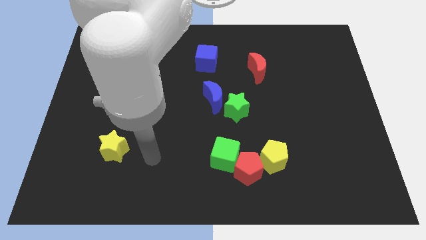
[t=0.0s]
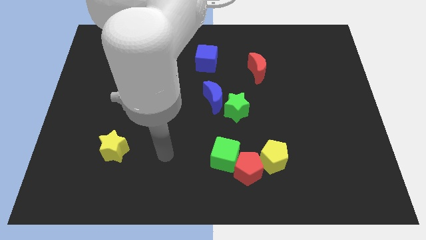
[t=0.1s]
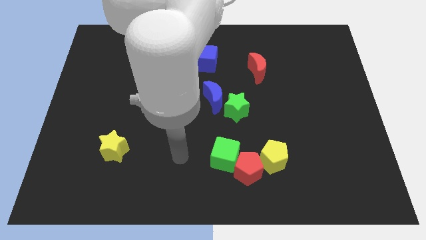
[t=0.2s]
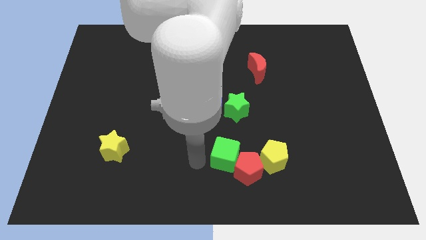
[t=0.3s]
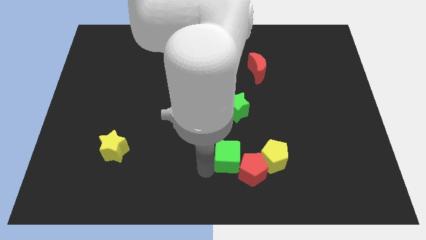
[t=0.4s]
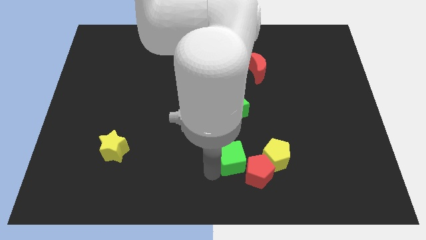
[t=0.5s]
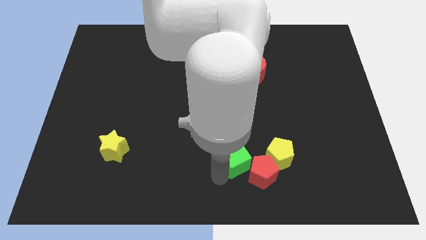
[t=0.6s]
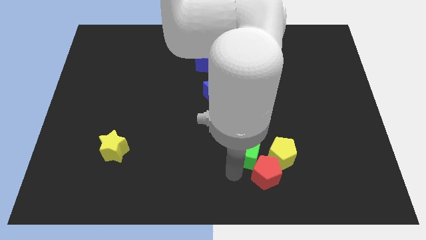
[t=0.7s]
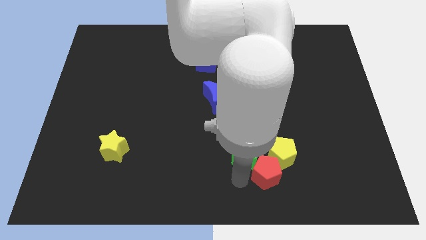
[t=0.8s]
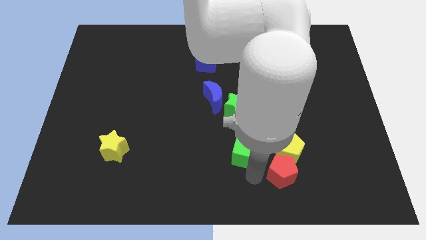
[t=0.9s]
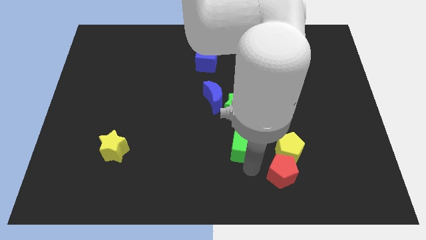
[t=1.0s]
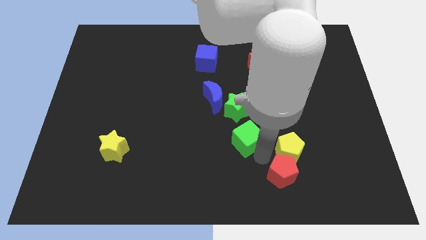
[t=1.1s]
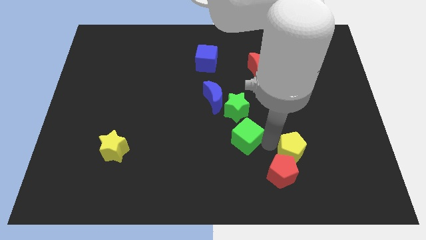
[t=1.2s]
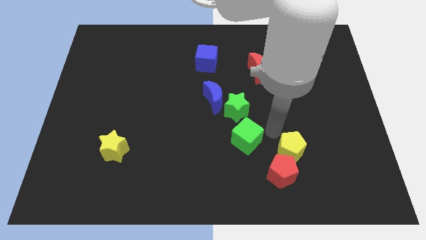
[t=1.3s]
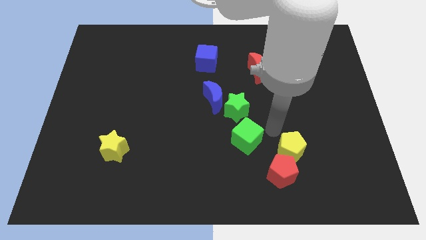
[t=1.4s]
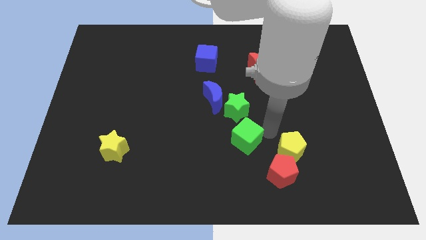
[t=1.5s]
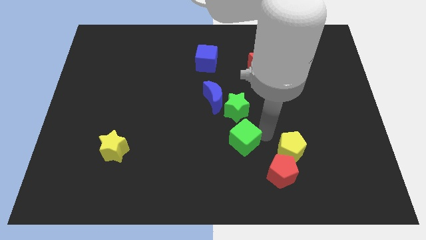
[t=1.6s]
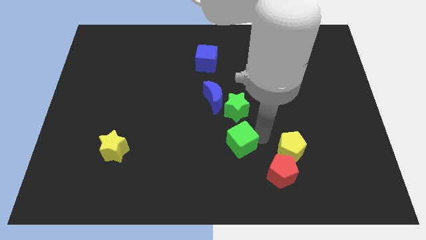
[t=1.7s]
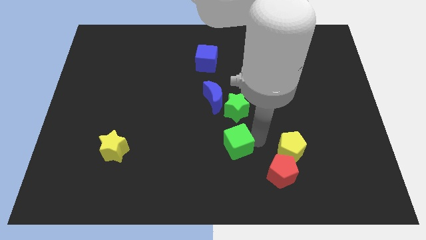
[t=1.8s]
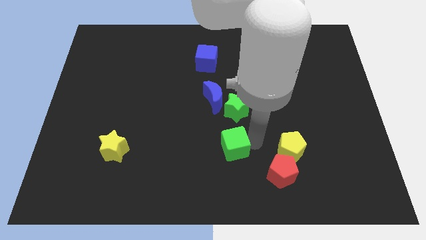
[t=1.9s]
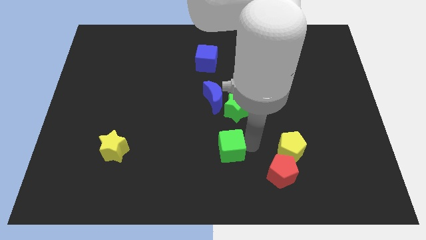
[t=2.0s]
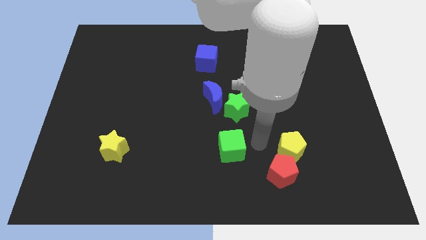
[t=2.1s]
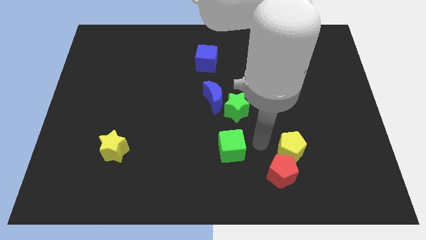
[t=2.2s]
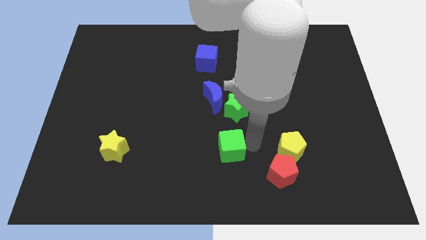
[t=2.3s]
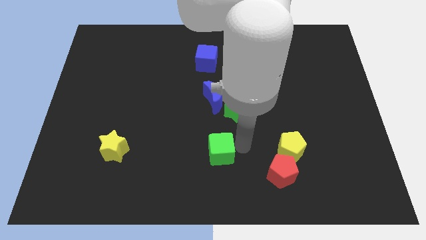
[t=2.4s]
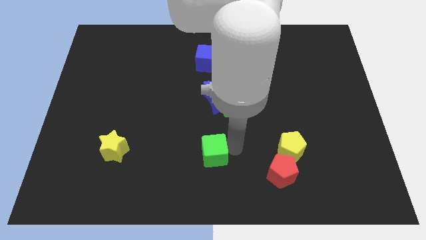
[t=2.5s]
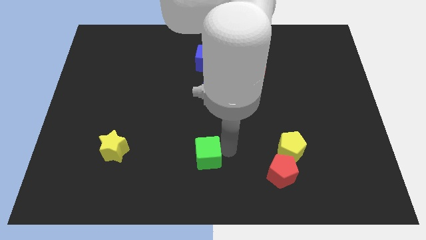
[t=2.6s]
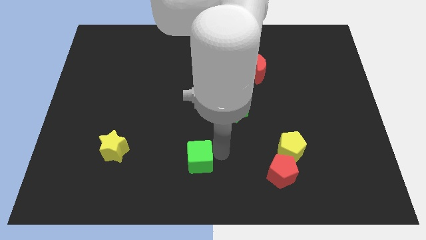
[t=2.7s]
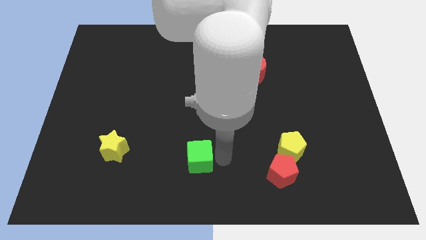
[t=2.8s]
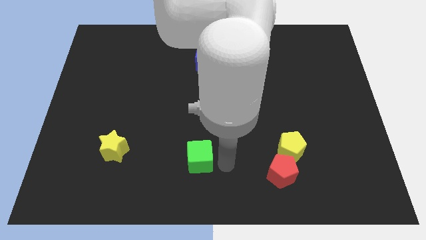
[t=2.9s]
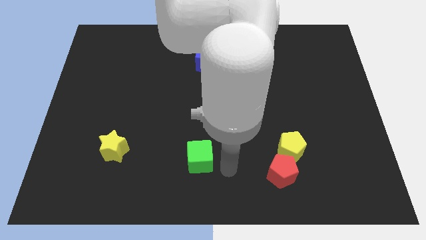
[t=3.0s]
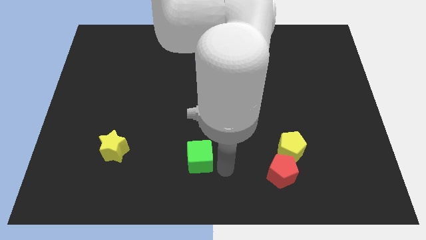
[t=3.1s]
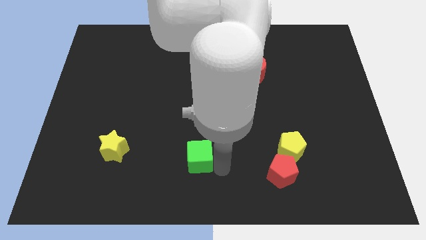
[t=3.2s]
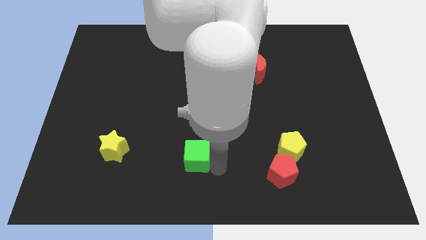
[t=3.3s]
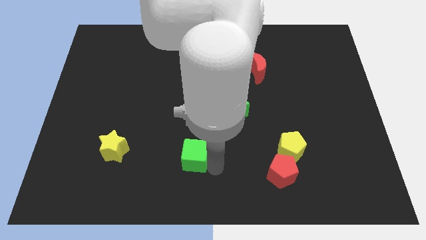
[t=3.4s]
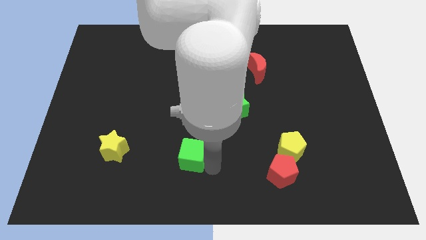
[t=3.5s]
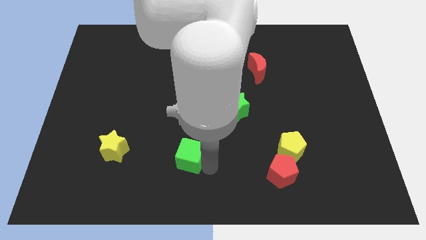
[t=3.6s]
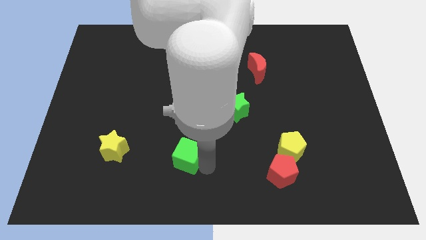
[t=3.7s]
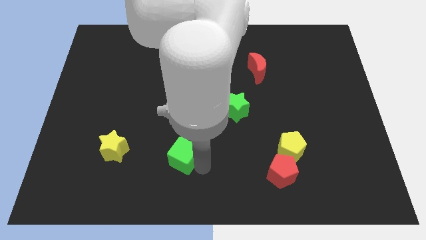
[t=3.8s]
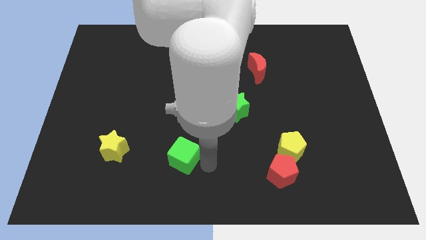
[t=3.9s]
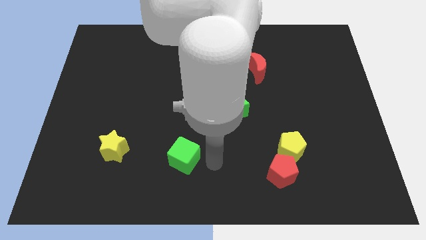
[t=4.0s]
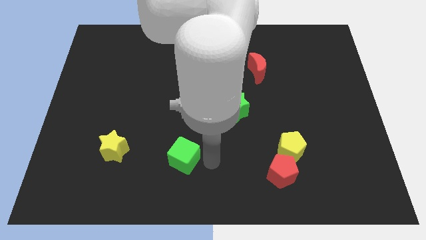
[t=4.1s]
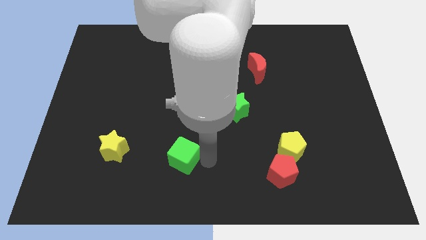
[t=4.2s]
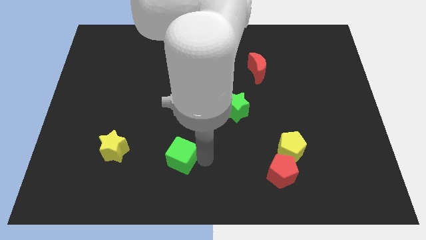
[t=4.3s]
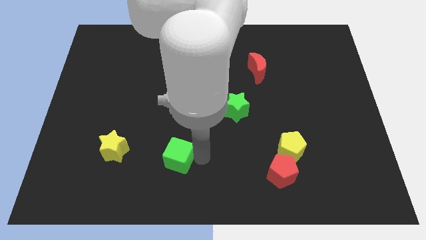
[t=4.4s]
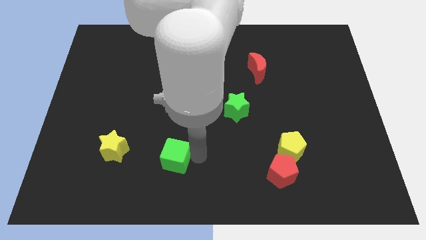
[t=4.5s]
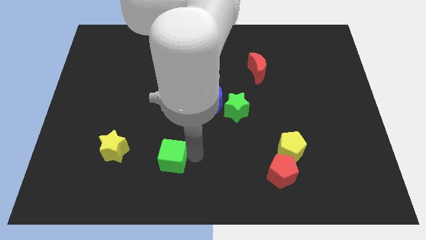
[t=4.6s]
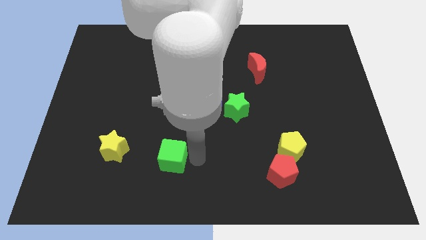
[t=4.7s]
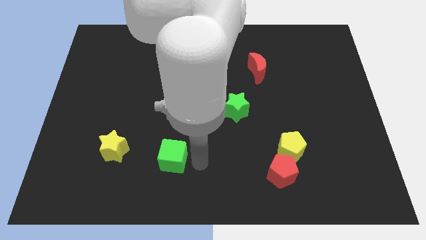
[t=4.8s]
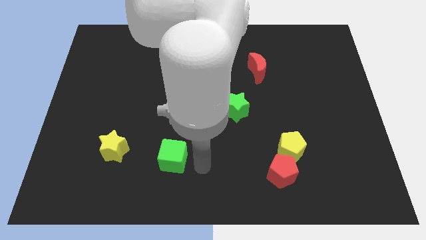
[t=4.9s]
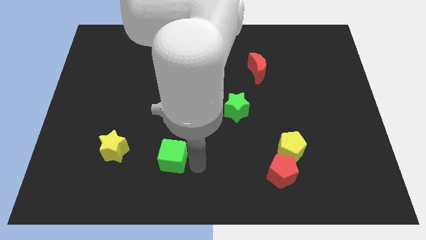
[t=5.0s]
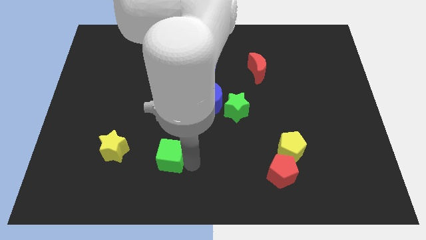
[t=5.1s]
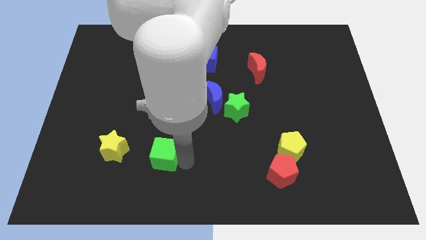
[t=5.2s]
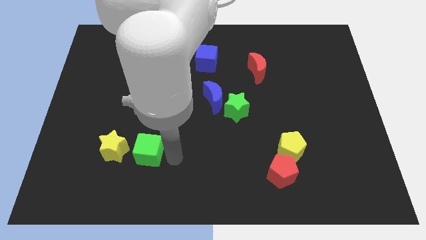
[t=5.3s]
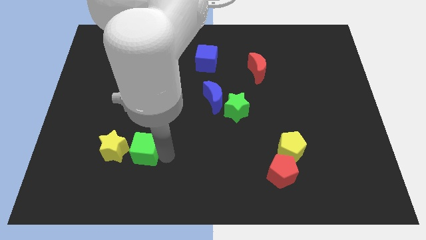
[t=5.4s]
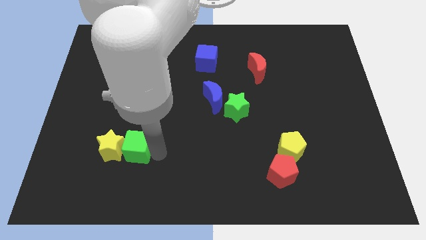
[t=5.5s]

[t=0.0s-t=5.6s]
slide the green cube next to the yellow star

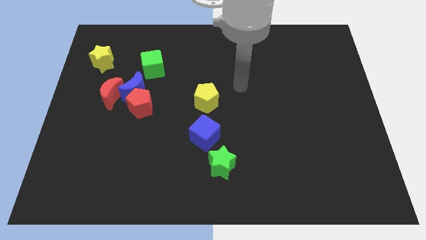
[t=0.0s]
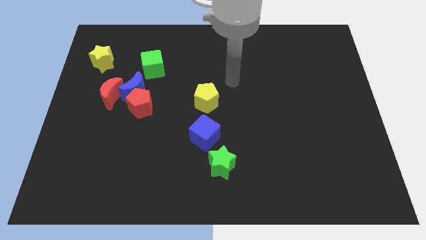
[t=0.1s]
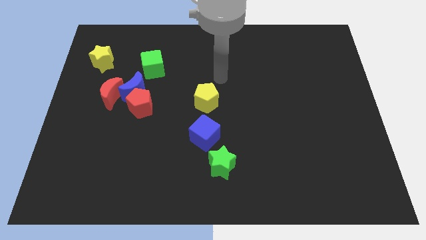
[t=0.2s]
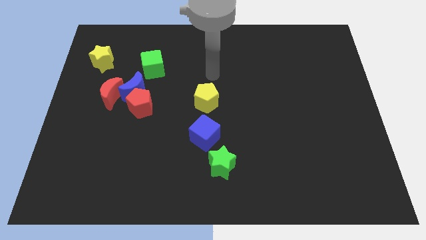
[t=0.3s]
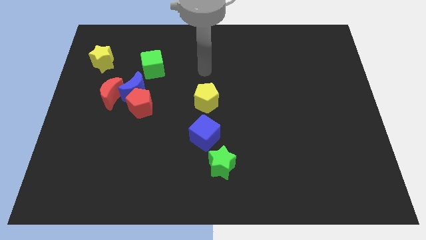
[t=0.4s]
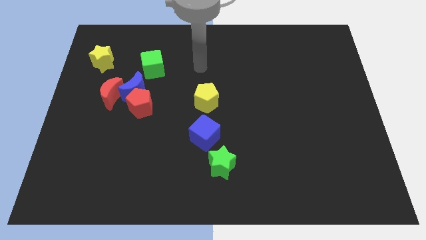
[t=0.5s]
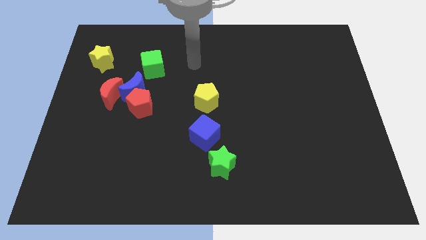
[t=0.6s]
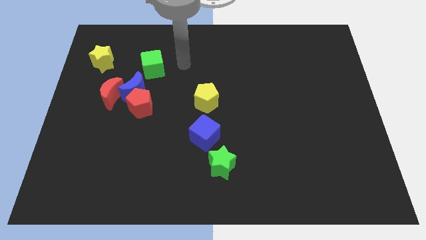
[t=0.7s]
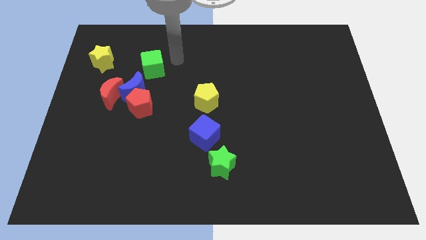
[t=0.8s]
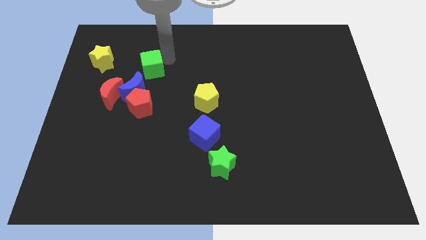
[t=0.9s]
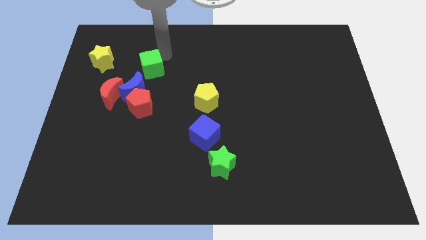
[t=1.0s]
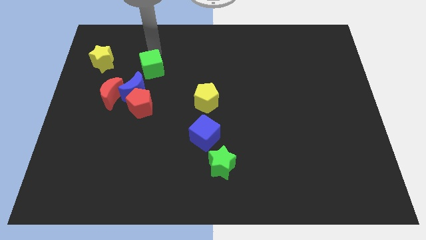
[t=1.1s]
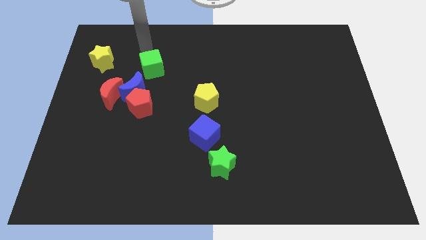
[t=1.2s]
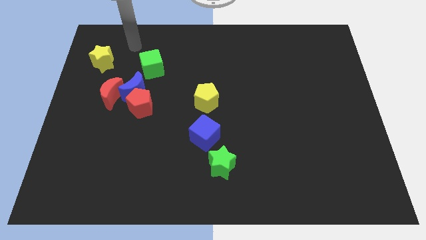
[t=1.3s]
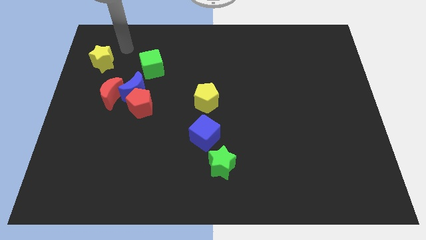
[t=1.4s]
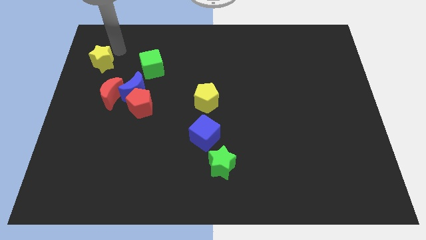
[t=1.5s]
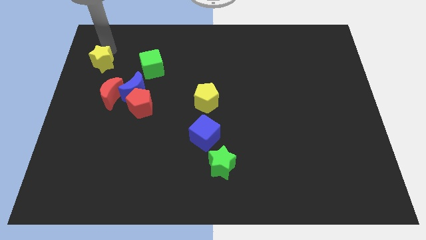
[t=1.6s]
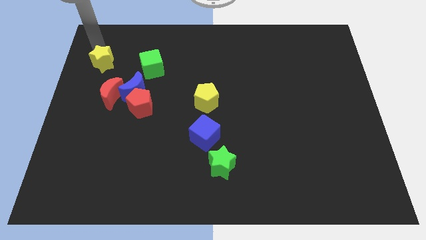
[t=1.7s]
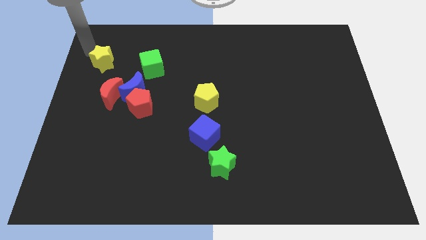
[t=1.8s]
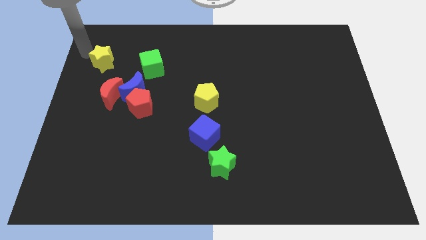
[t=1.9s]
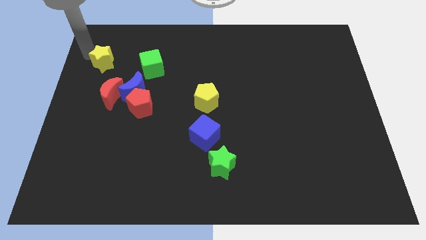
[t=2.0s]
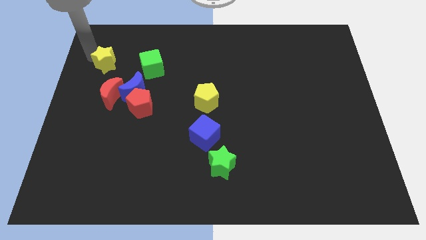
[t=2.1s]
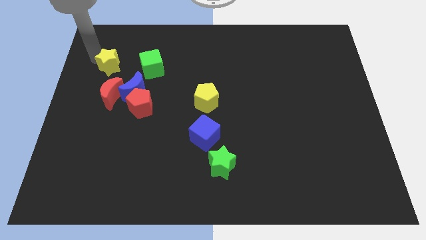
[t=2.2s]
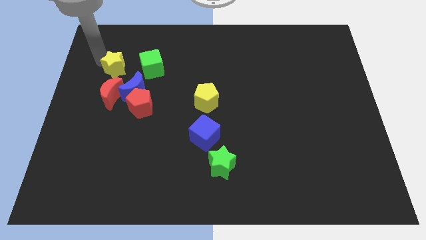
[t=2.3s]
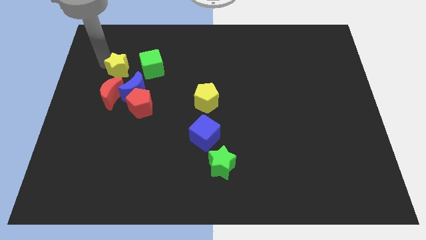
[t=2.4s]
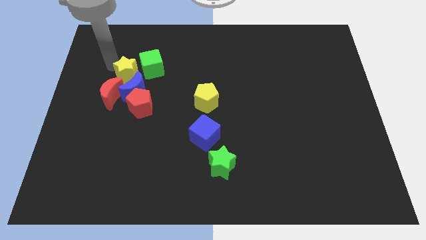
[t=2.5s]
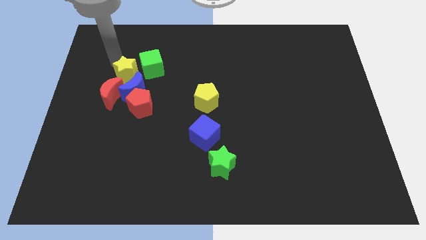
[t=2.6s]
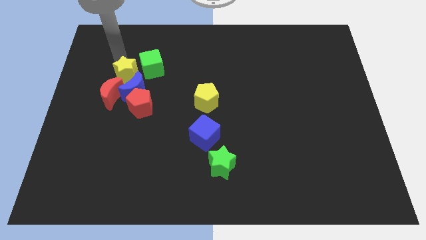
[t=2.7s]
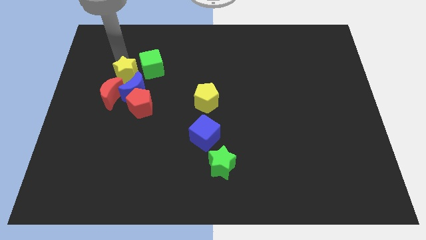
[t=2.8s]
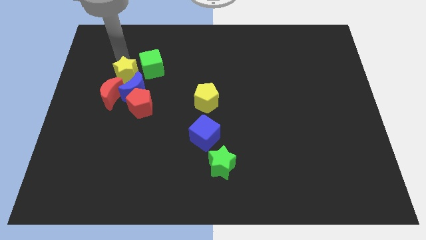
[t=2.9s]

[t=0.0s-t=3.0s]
push the yellow star close to the blue moon
